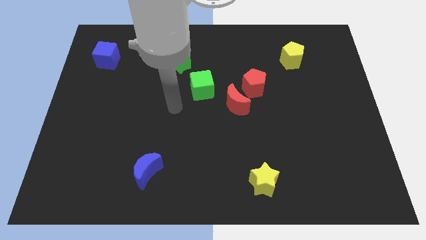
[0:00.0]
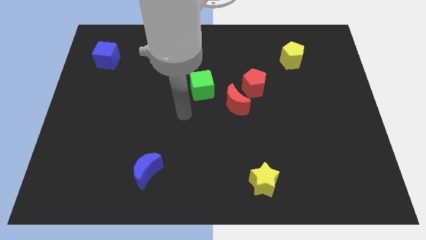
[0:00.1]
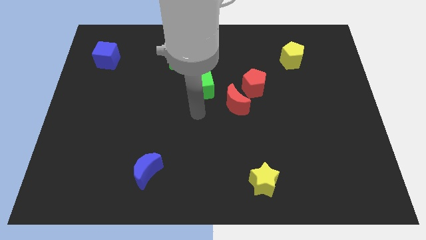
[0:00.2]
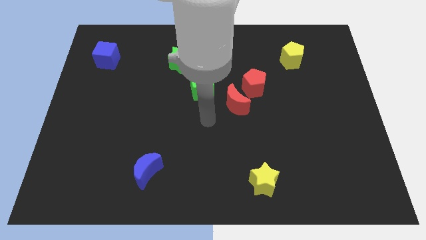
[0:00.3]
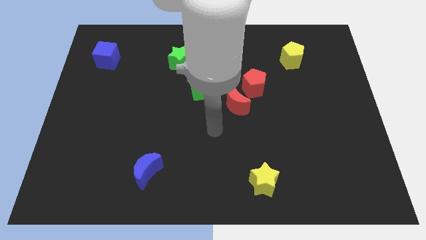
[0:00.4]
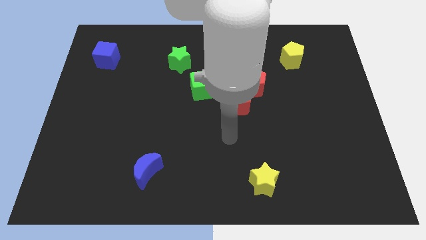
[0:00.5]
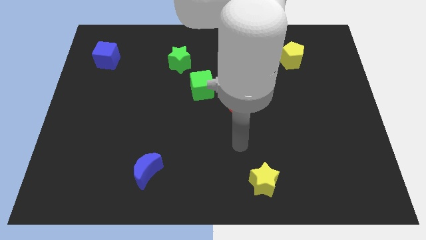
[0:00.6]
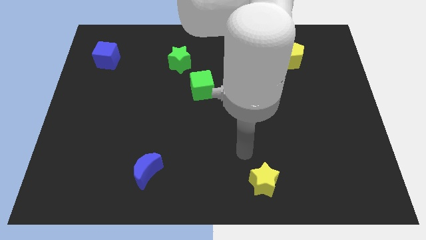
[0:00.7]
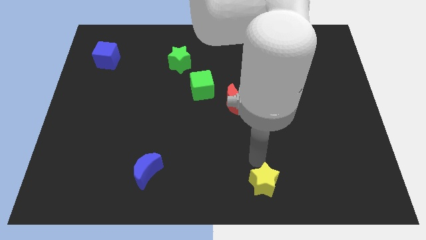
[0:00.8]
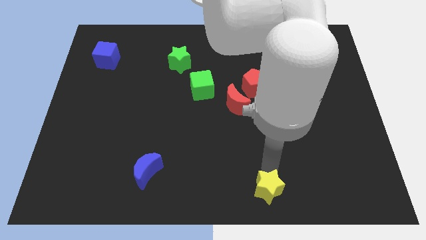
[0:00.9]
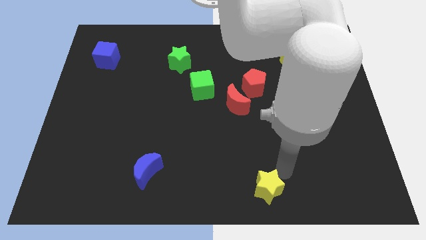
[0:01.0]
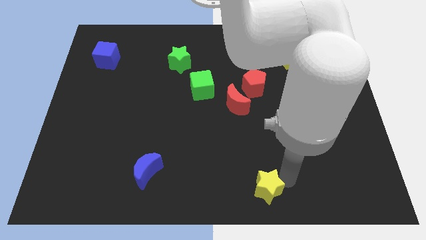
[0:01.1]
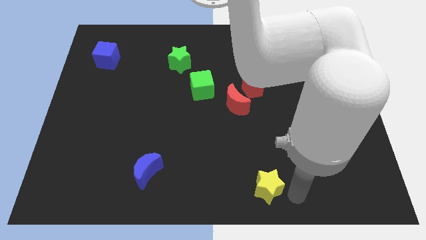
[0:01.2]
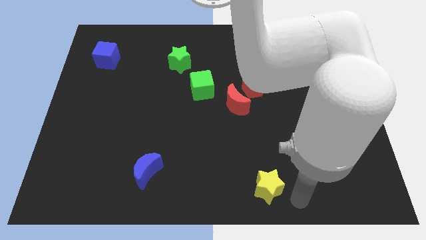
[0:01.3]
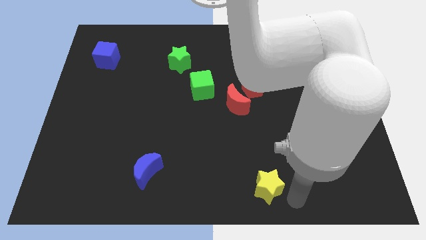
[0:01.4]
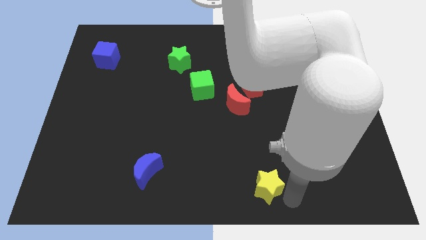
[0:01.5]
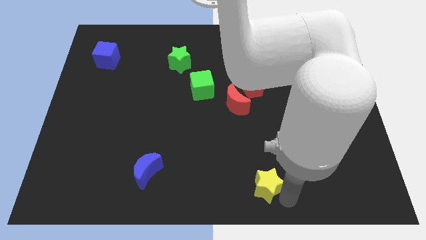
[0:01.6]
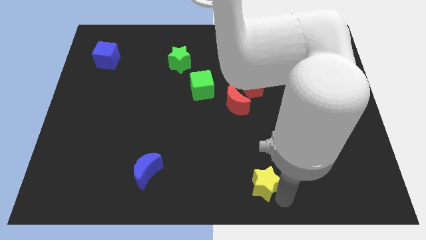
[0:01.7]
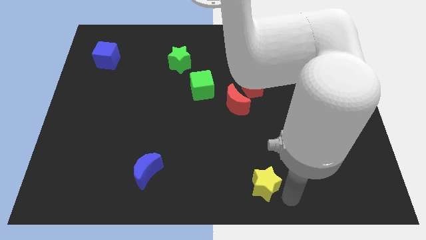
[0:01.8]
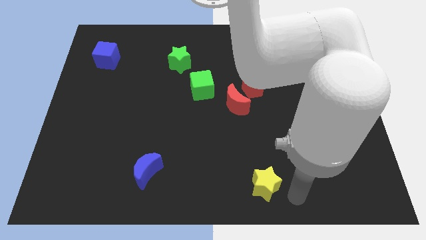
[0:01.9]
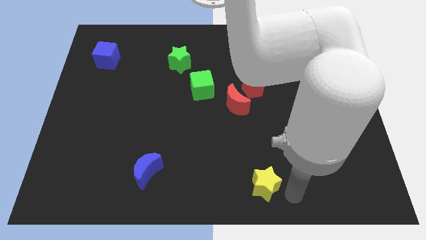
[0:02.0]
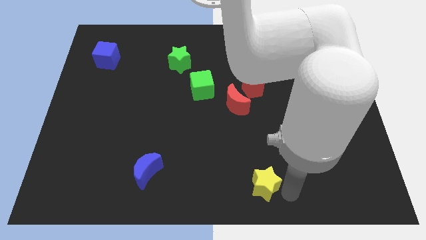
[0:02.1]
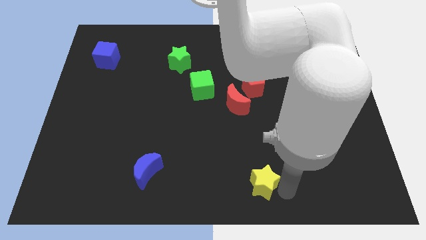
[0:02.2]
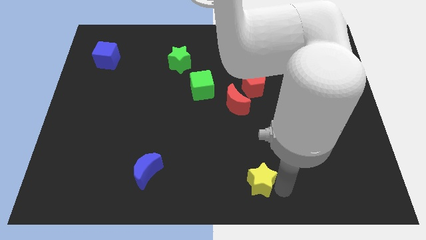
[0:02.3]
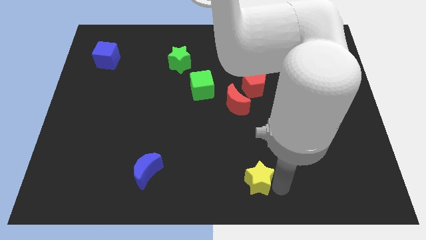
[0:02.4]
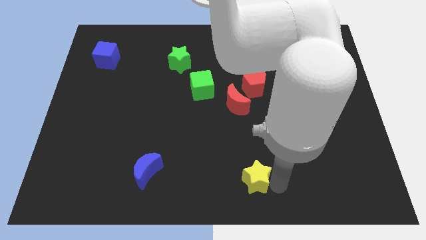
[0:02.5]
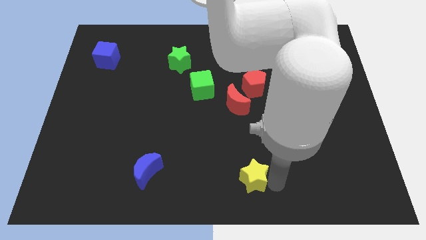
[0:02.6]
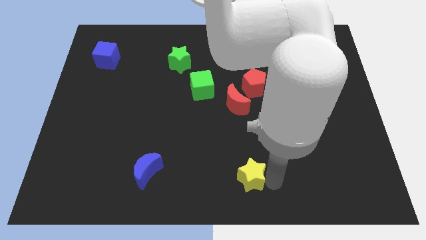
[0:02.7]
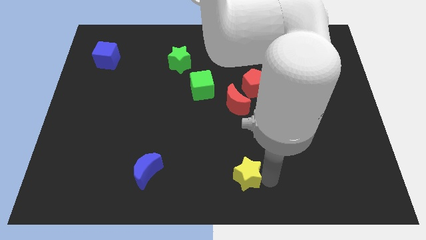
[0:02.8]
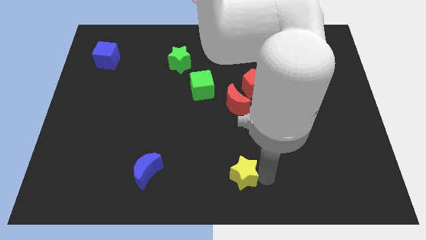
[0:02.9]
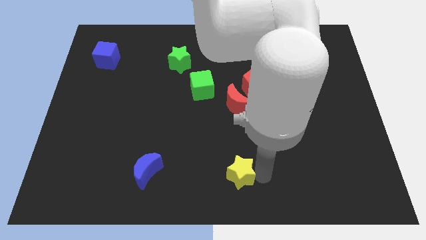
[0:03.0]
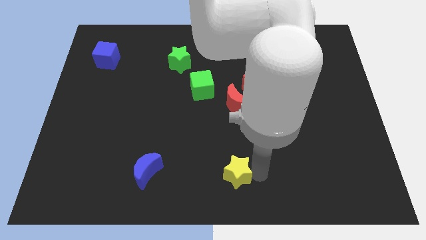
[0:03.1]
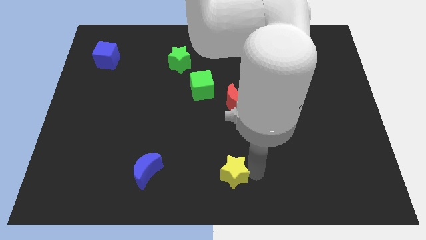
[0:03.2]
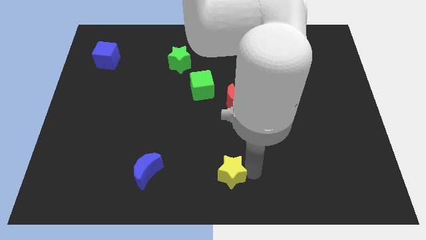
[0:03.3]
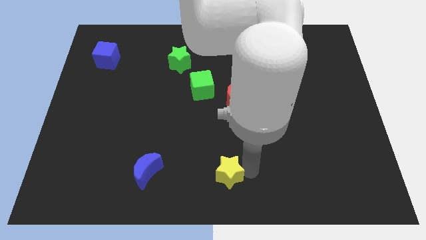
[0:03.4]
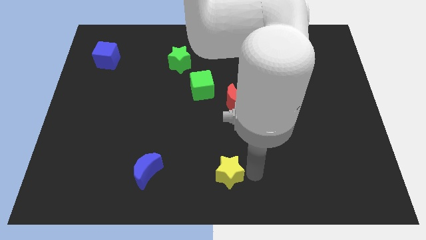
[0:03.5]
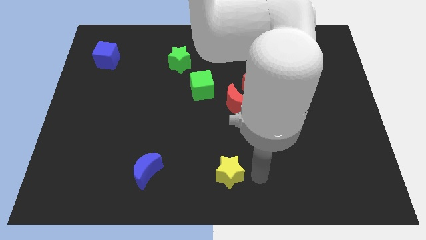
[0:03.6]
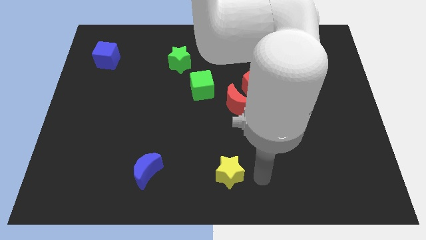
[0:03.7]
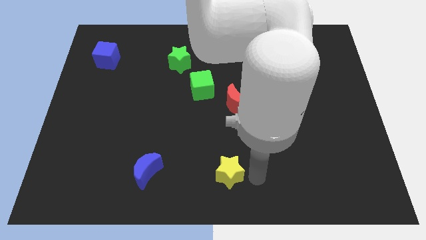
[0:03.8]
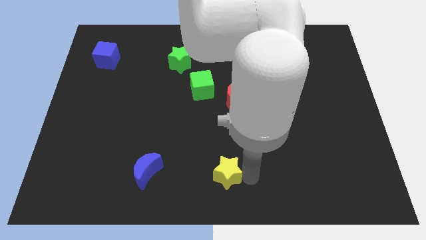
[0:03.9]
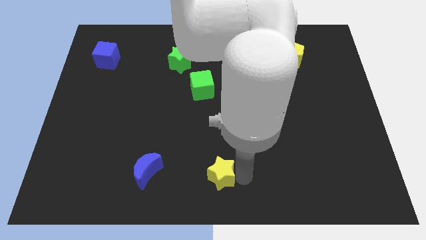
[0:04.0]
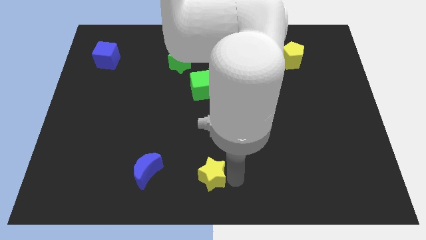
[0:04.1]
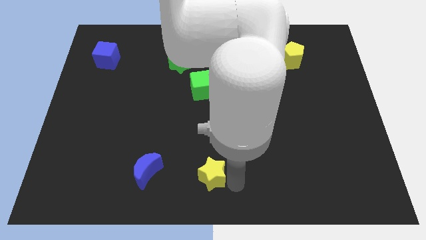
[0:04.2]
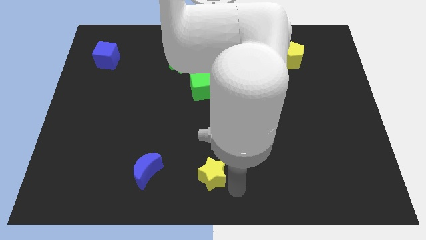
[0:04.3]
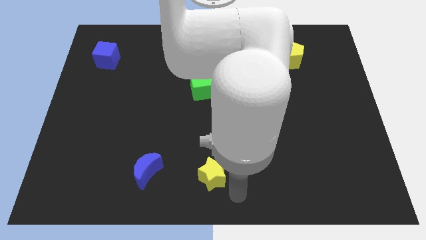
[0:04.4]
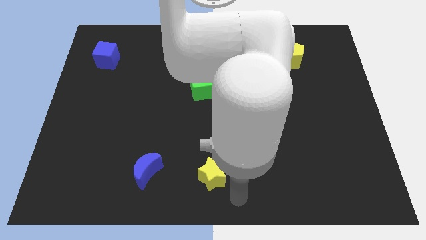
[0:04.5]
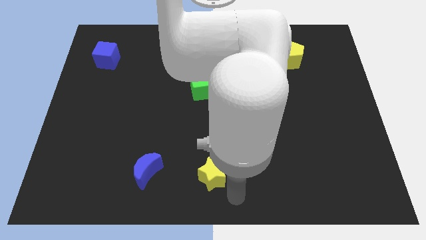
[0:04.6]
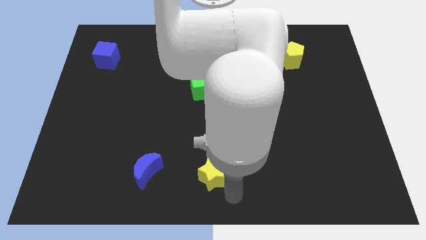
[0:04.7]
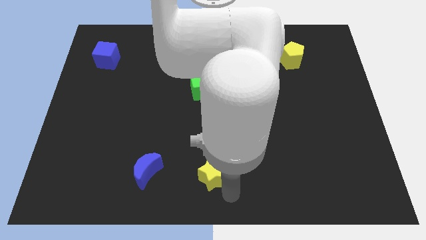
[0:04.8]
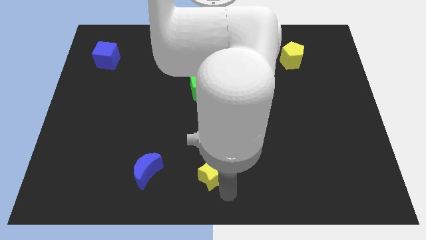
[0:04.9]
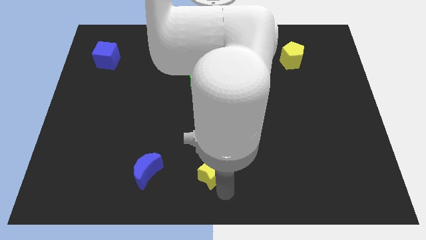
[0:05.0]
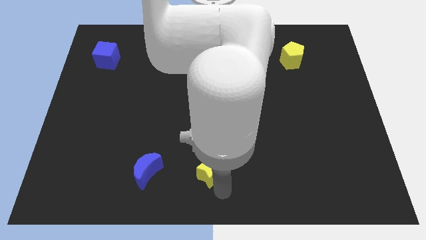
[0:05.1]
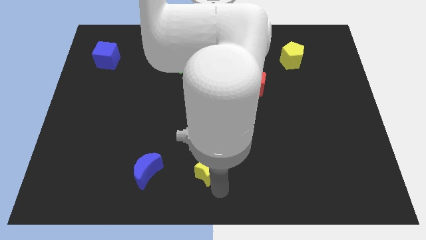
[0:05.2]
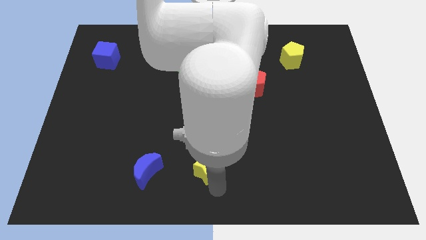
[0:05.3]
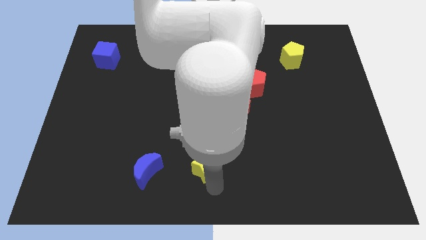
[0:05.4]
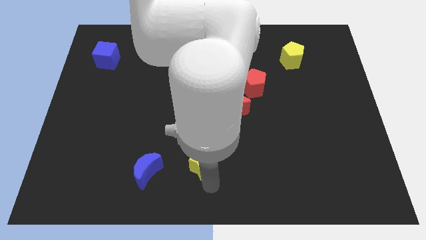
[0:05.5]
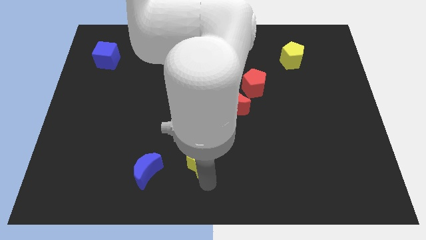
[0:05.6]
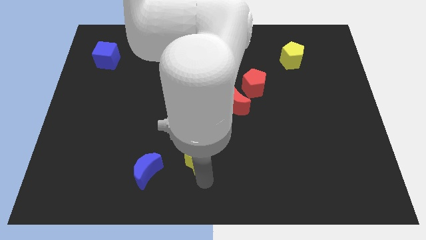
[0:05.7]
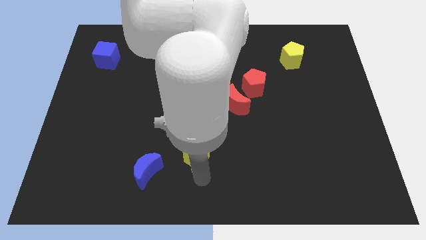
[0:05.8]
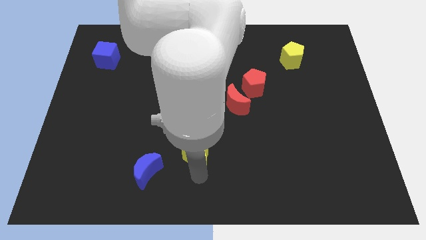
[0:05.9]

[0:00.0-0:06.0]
put the yellow star diagonally up and to the right of the blue moon

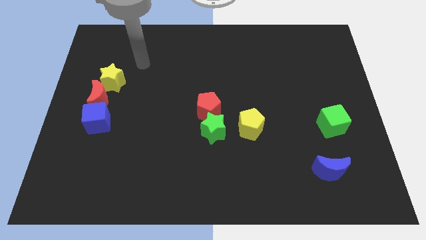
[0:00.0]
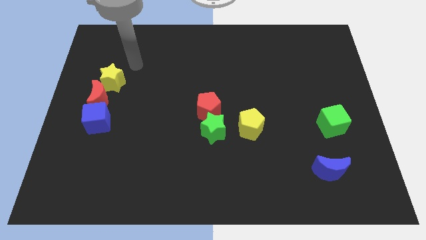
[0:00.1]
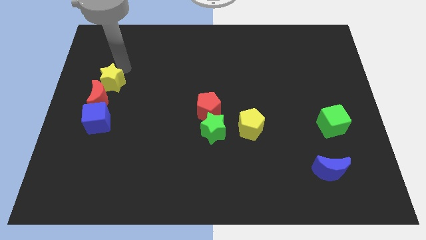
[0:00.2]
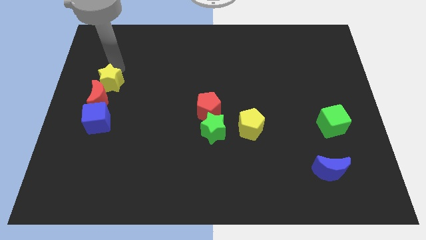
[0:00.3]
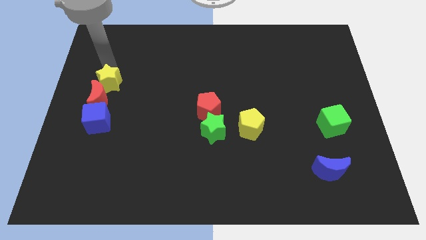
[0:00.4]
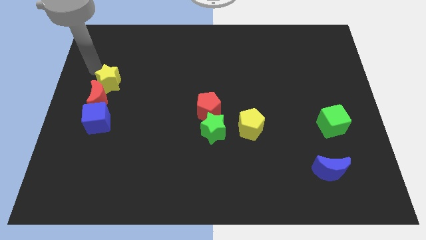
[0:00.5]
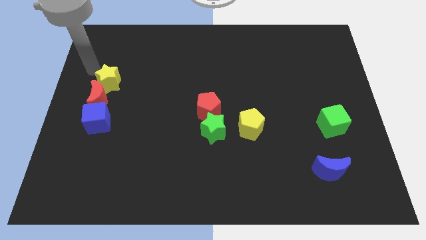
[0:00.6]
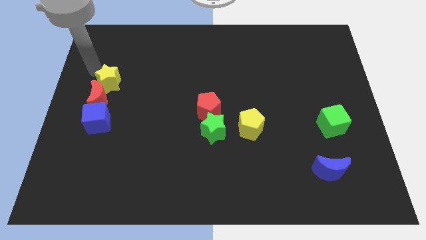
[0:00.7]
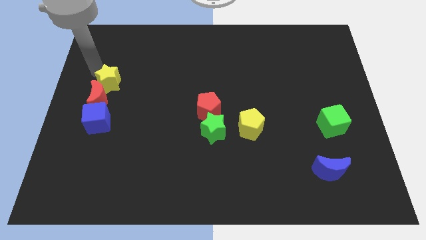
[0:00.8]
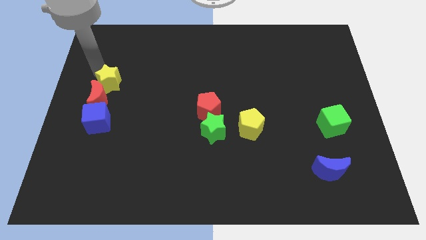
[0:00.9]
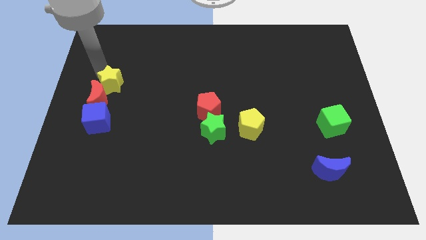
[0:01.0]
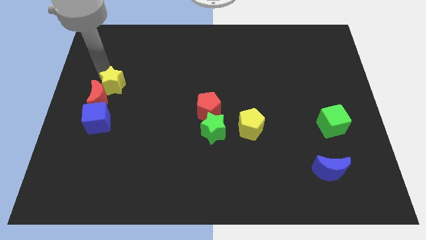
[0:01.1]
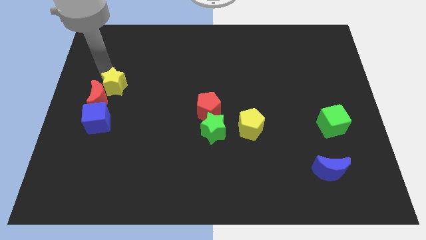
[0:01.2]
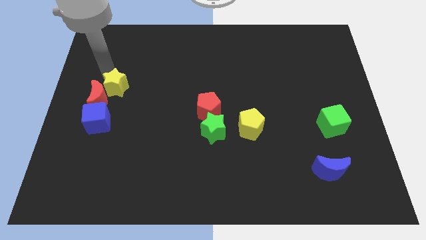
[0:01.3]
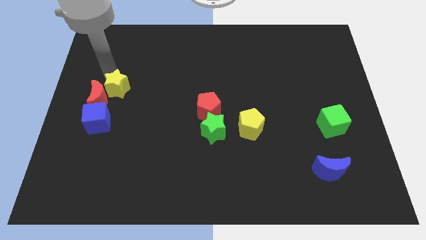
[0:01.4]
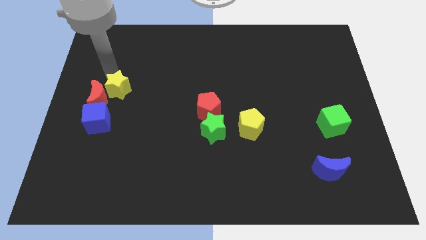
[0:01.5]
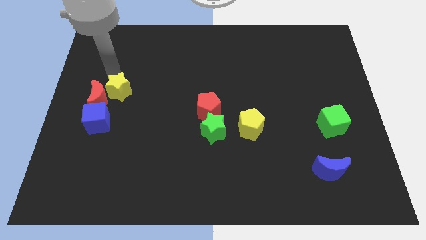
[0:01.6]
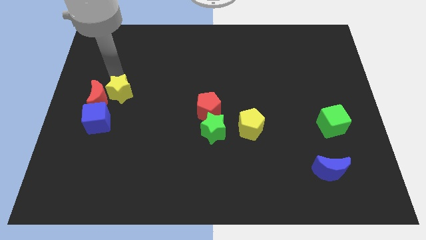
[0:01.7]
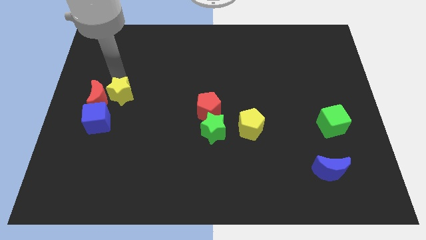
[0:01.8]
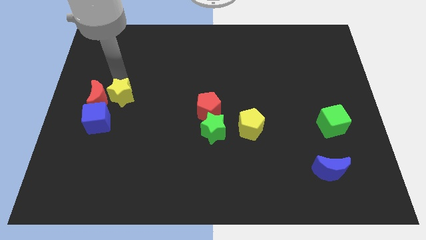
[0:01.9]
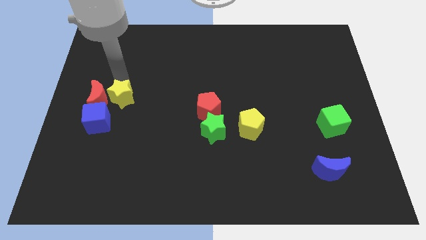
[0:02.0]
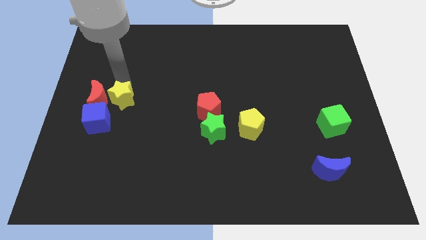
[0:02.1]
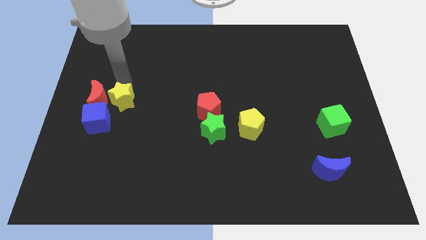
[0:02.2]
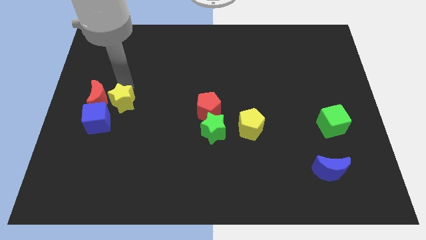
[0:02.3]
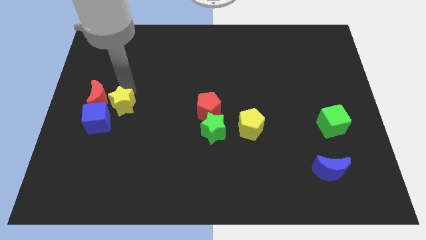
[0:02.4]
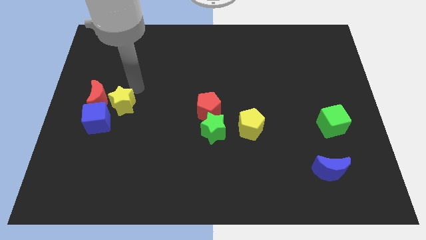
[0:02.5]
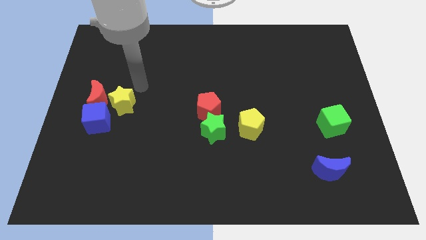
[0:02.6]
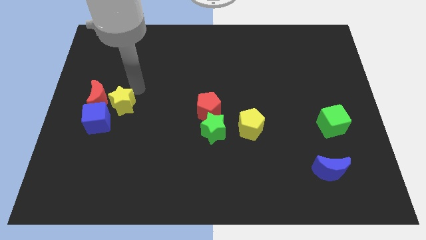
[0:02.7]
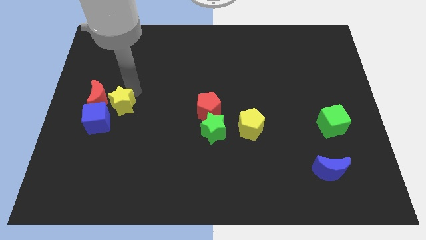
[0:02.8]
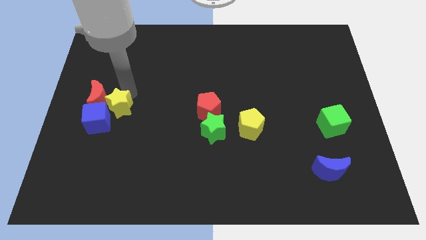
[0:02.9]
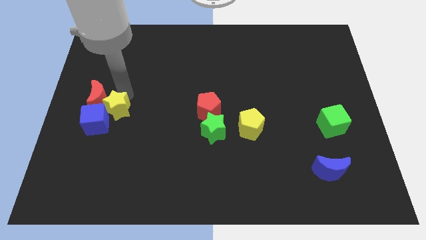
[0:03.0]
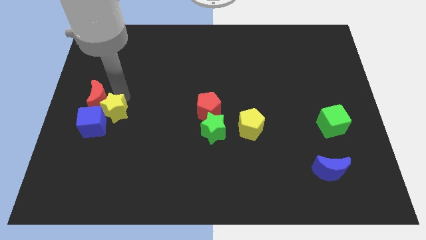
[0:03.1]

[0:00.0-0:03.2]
push the yellow star to the bottom of the red moon
